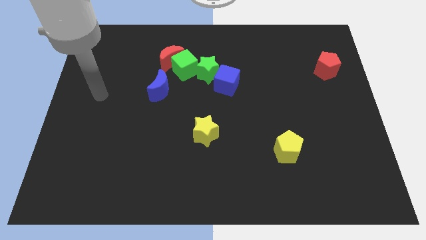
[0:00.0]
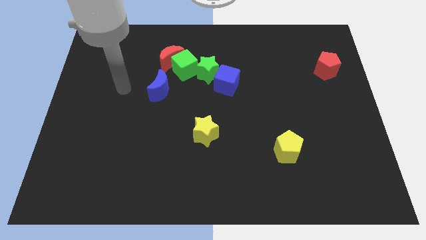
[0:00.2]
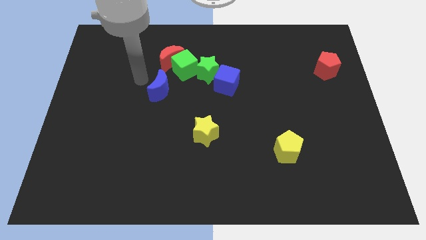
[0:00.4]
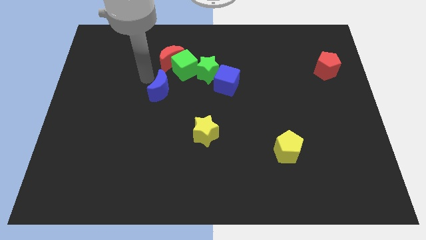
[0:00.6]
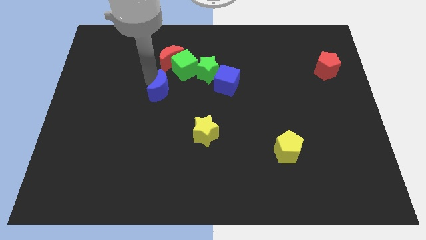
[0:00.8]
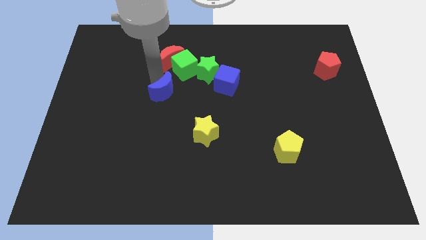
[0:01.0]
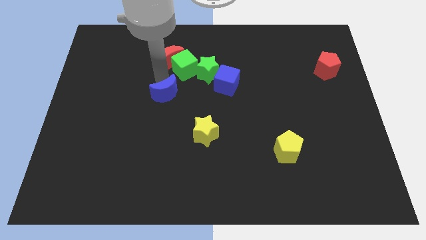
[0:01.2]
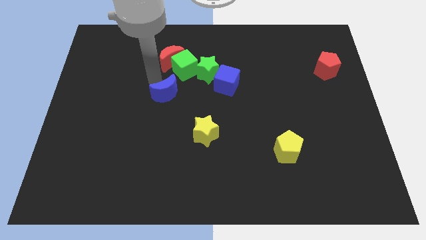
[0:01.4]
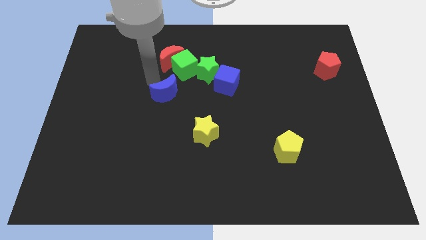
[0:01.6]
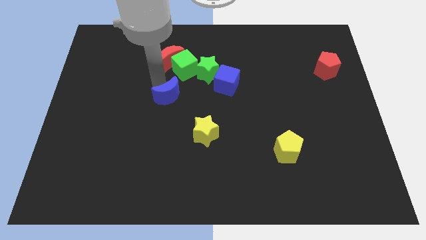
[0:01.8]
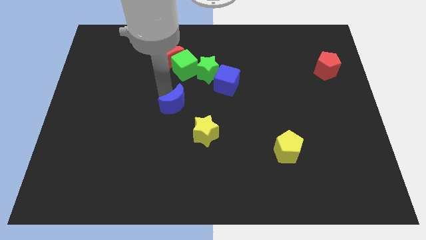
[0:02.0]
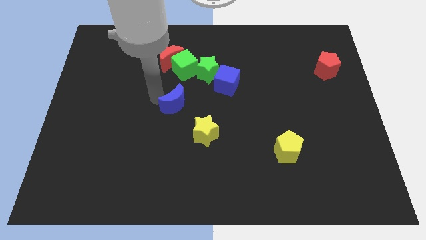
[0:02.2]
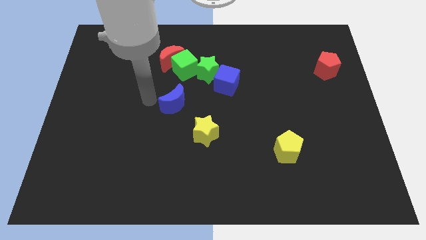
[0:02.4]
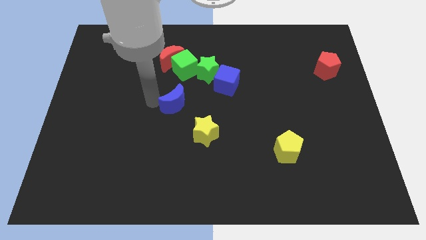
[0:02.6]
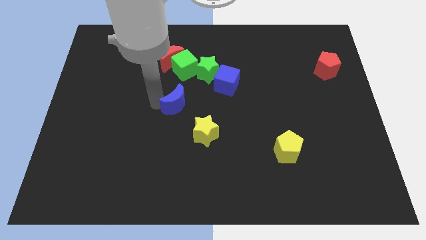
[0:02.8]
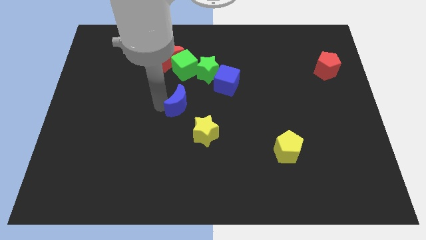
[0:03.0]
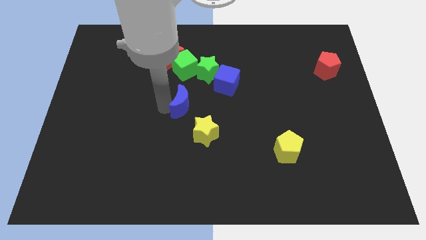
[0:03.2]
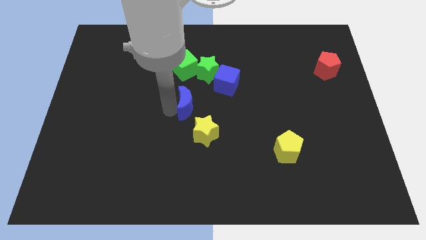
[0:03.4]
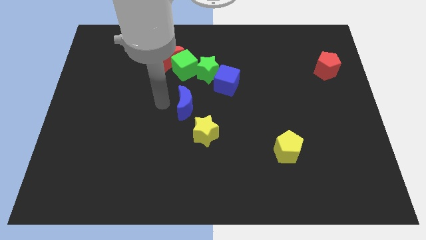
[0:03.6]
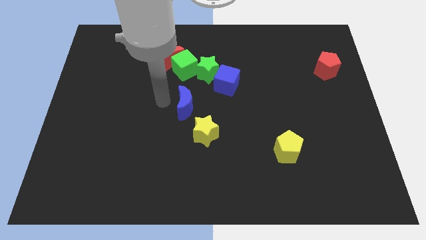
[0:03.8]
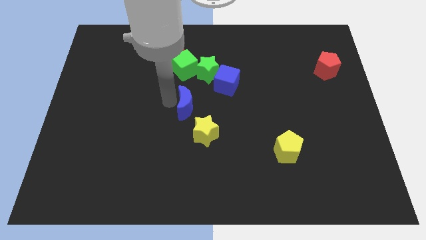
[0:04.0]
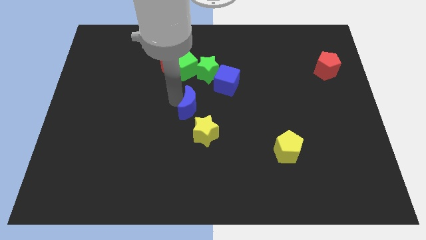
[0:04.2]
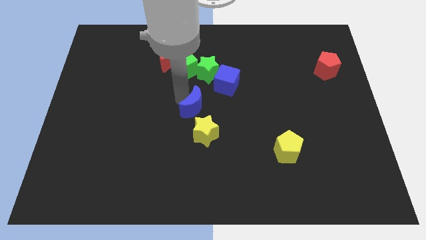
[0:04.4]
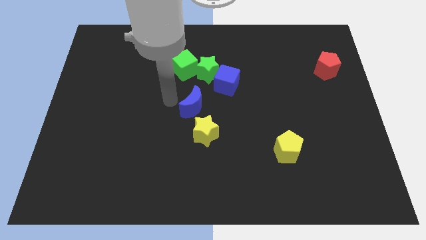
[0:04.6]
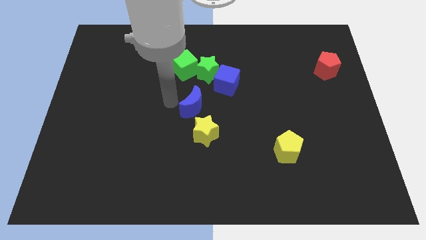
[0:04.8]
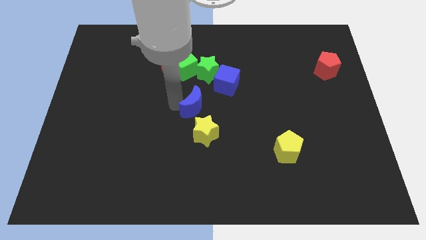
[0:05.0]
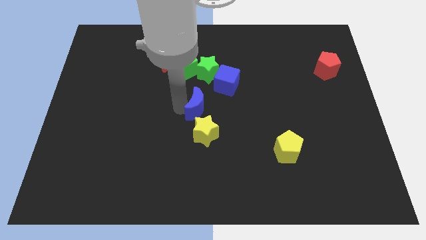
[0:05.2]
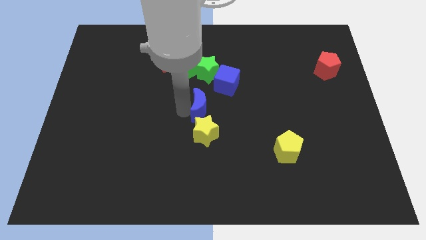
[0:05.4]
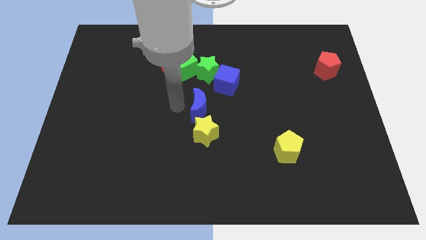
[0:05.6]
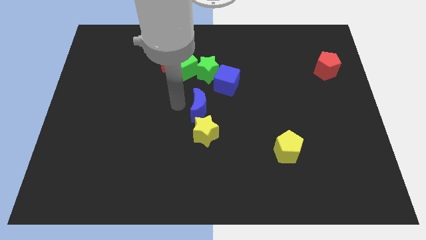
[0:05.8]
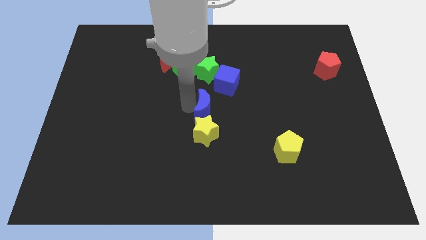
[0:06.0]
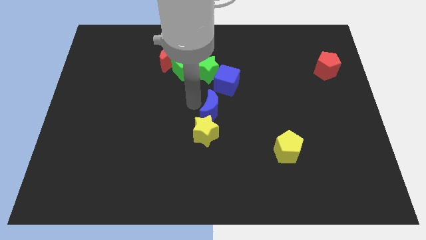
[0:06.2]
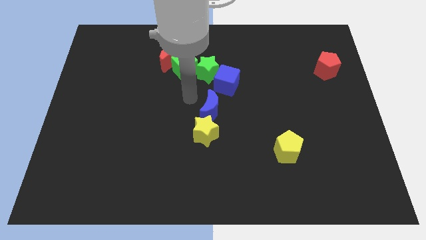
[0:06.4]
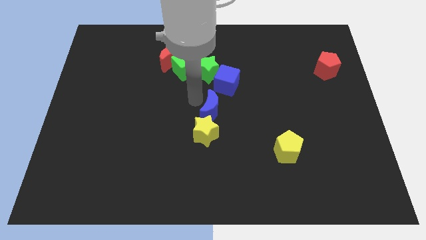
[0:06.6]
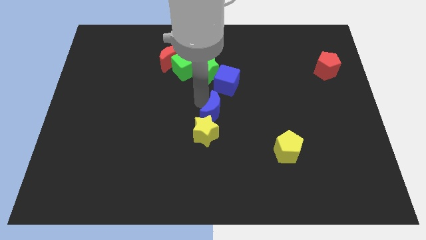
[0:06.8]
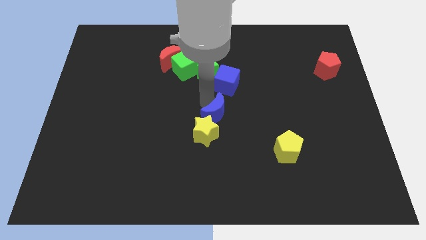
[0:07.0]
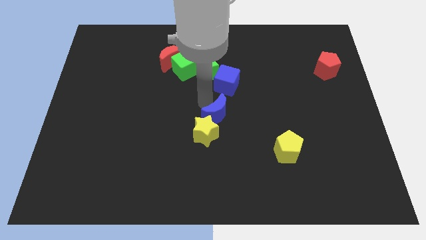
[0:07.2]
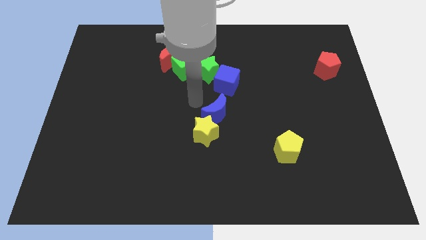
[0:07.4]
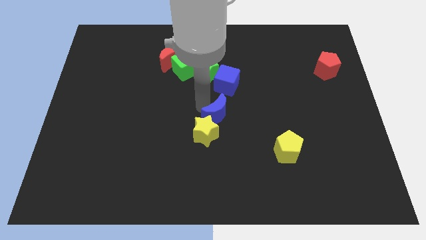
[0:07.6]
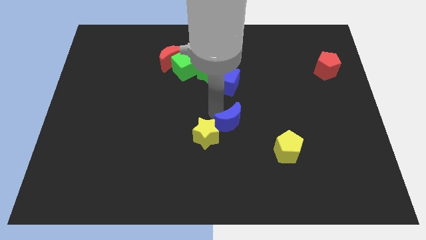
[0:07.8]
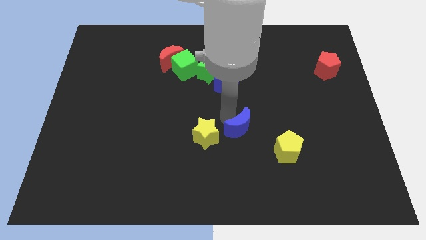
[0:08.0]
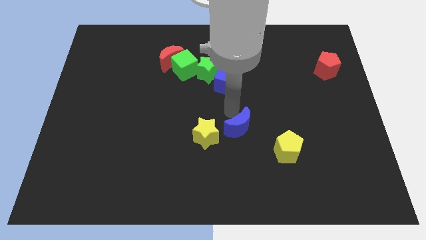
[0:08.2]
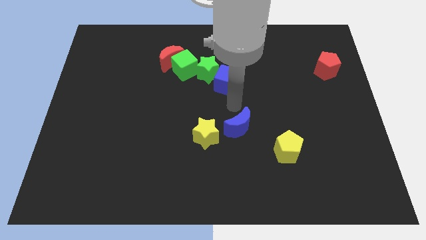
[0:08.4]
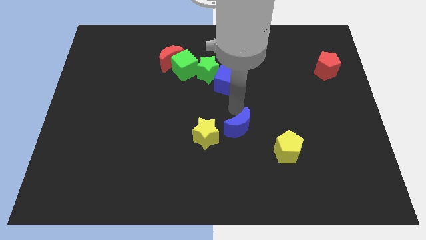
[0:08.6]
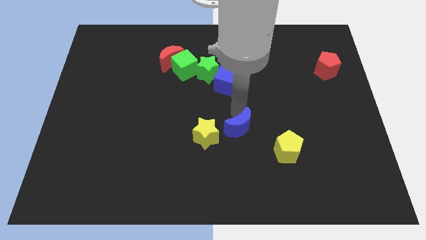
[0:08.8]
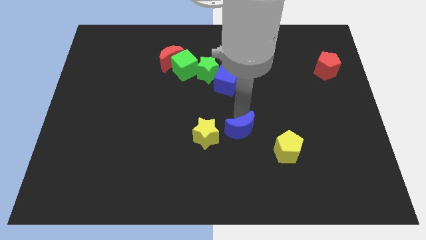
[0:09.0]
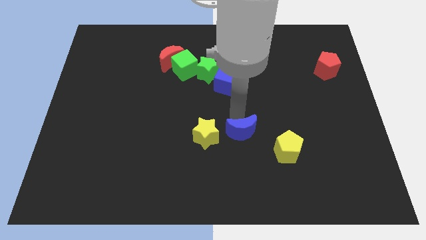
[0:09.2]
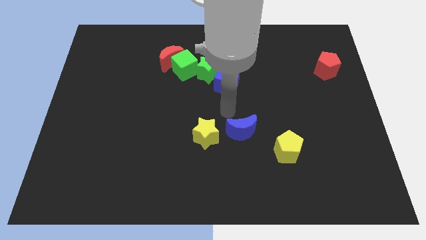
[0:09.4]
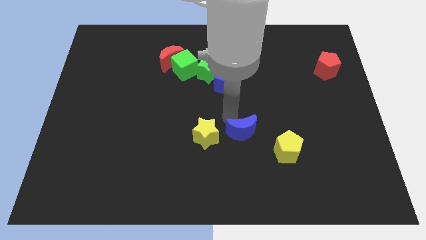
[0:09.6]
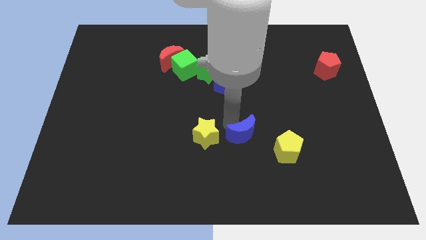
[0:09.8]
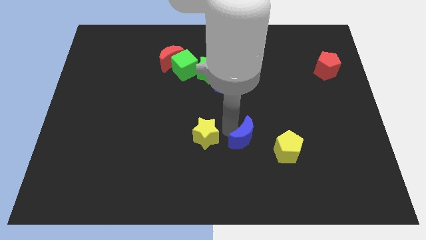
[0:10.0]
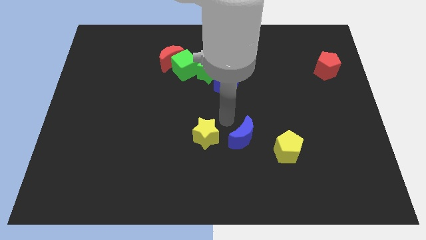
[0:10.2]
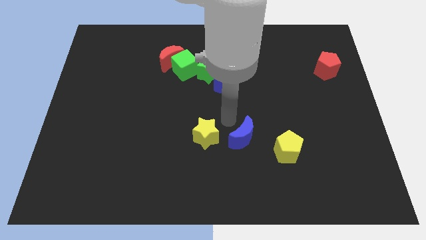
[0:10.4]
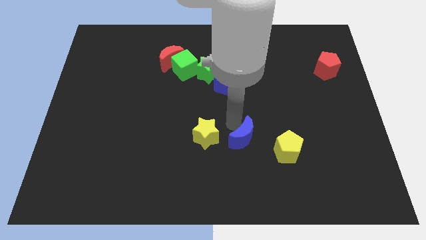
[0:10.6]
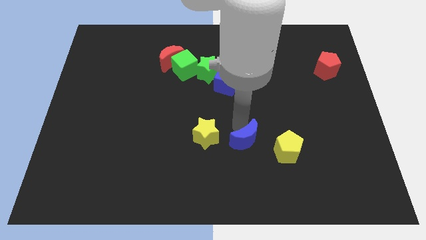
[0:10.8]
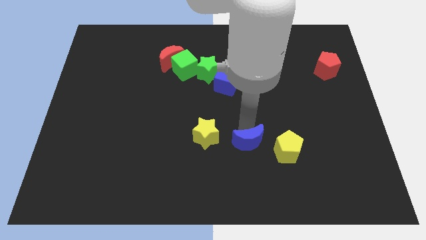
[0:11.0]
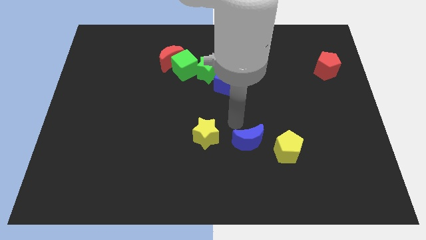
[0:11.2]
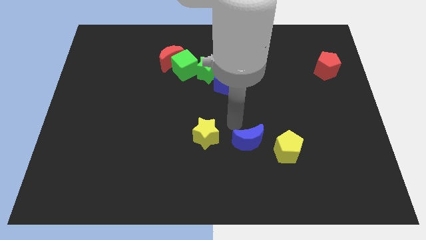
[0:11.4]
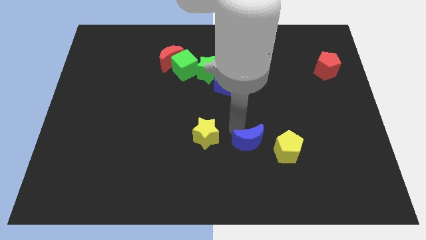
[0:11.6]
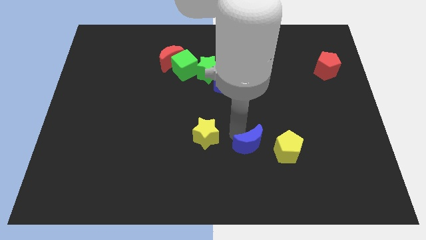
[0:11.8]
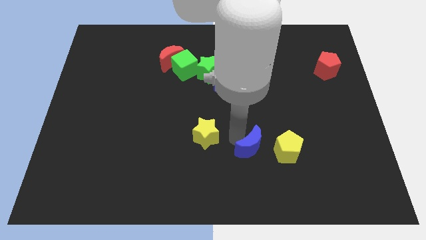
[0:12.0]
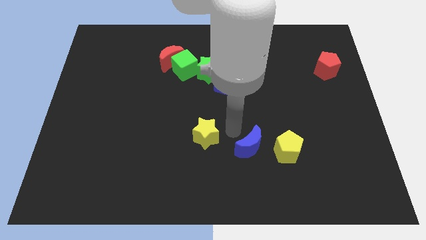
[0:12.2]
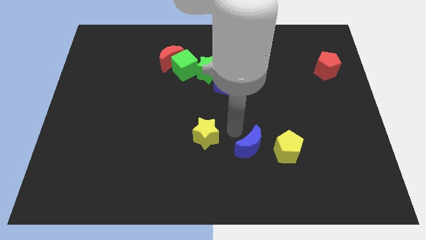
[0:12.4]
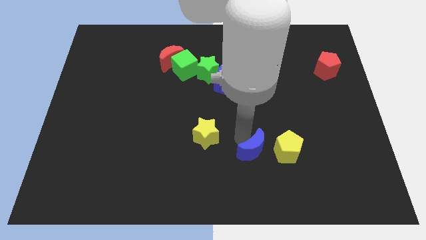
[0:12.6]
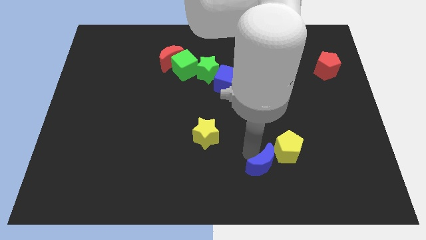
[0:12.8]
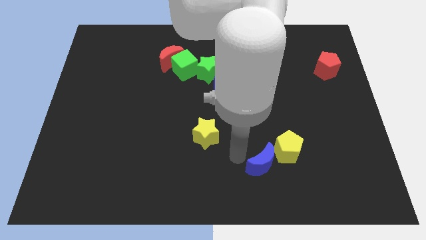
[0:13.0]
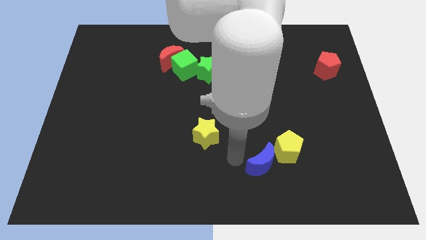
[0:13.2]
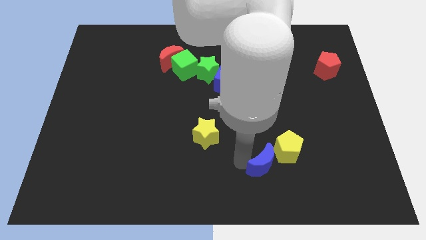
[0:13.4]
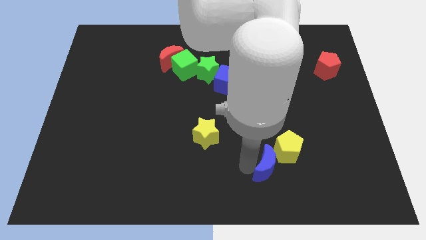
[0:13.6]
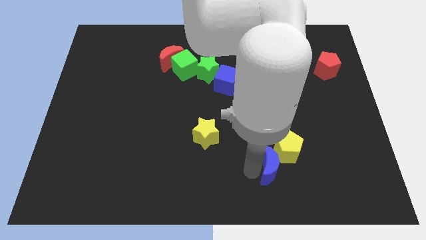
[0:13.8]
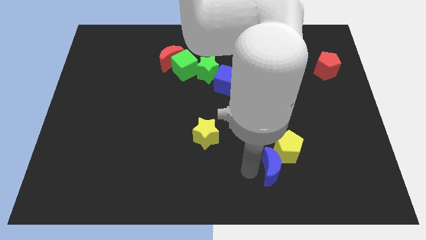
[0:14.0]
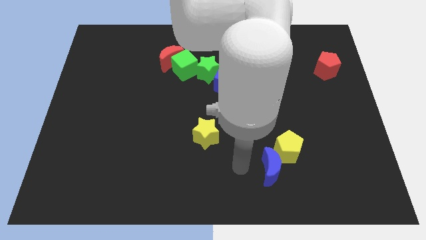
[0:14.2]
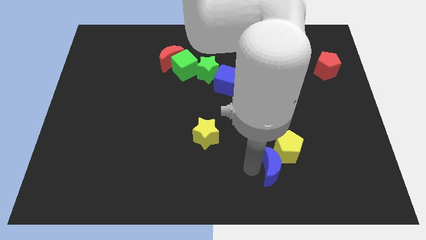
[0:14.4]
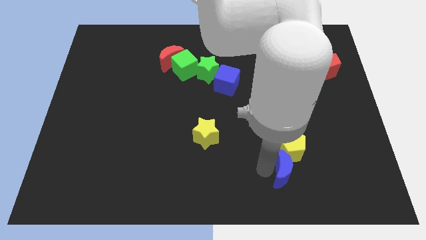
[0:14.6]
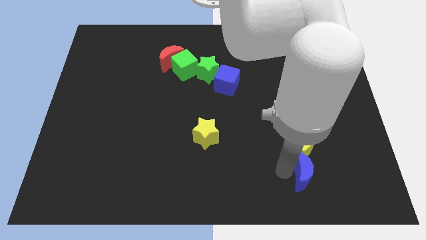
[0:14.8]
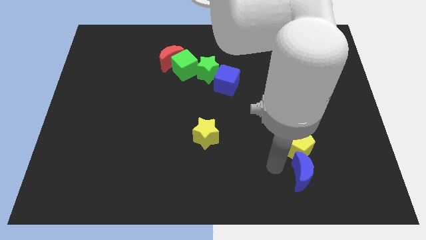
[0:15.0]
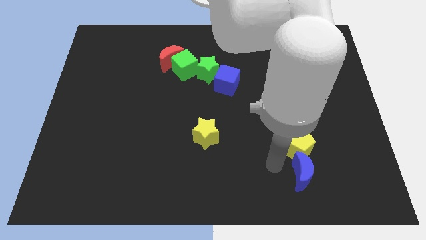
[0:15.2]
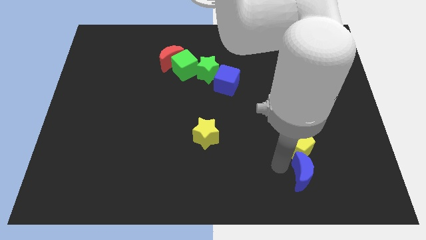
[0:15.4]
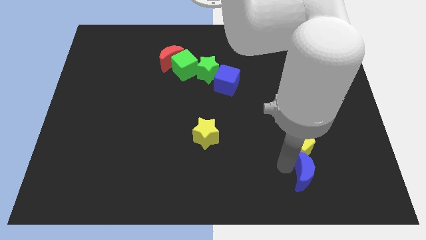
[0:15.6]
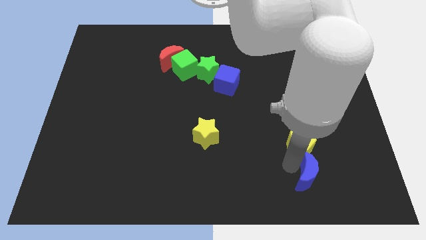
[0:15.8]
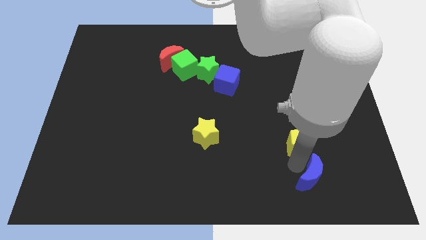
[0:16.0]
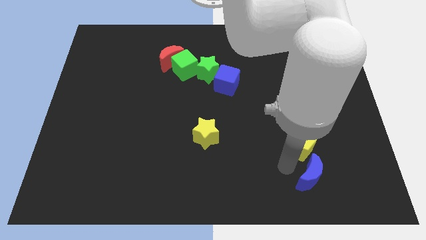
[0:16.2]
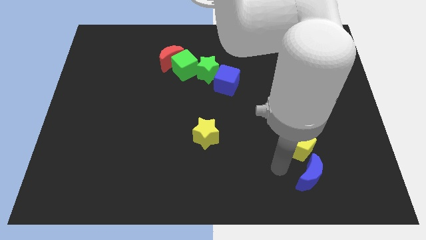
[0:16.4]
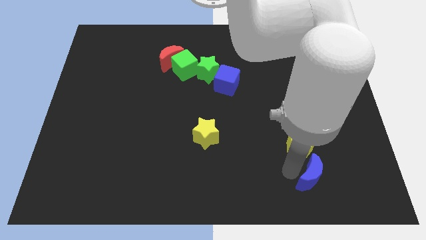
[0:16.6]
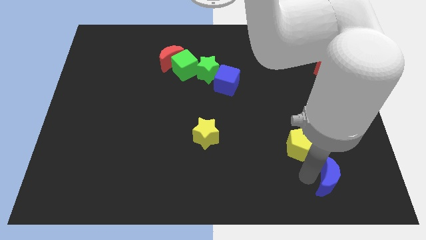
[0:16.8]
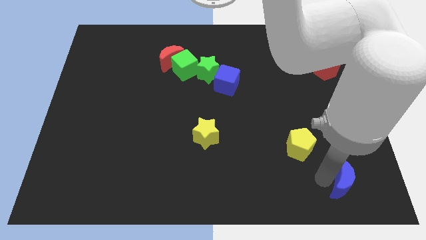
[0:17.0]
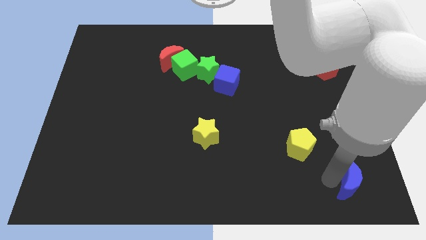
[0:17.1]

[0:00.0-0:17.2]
push the blue moon to the bottom right
